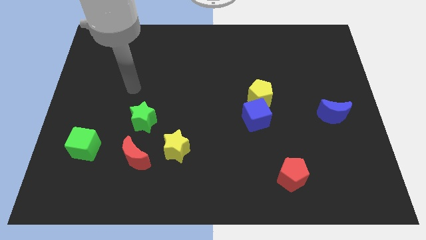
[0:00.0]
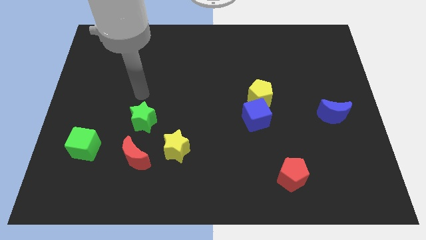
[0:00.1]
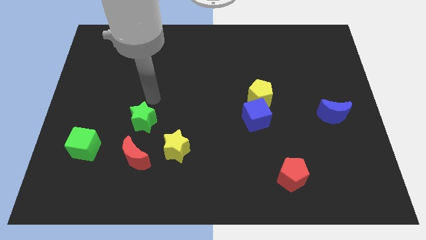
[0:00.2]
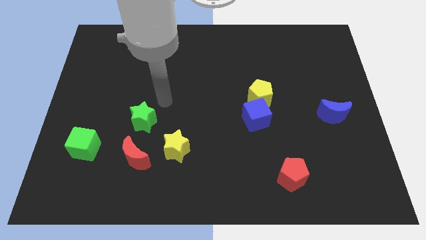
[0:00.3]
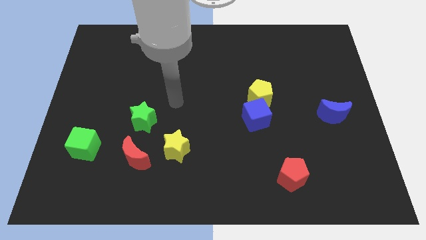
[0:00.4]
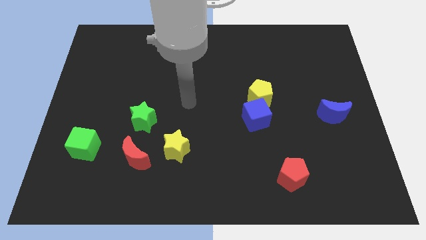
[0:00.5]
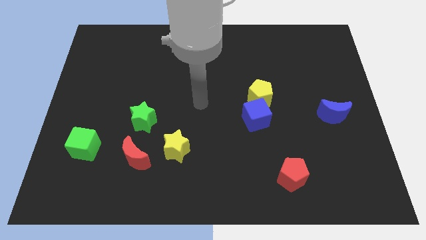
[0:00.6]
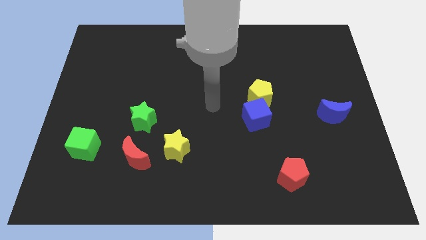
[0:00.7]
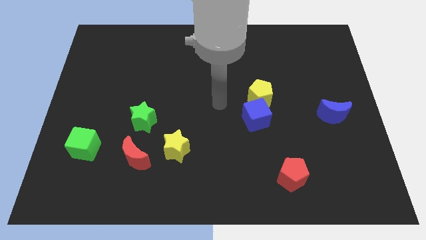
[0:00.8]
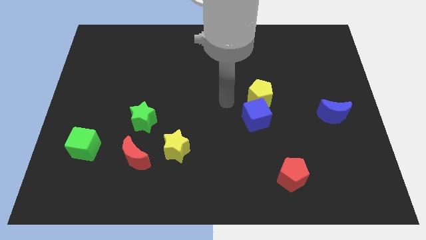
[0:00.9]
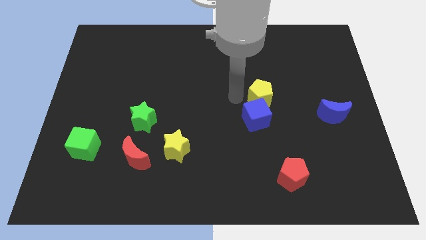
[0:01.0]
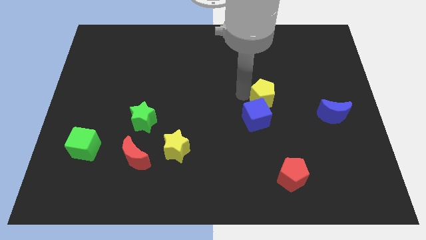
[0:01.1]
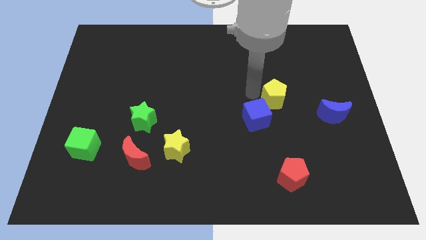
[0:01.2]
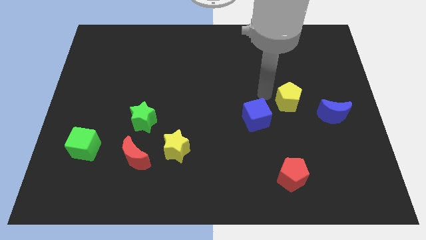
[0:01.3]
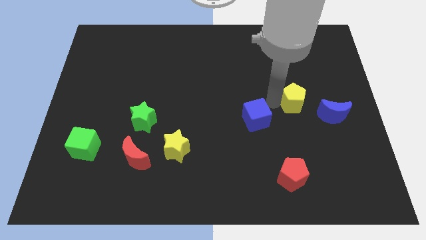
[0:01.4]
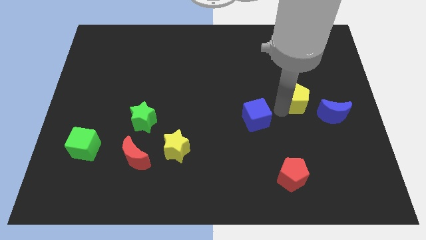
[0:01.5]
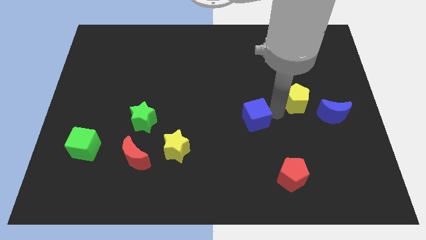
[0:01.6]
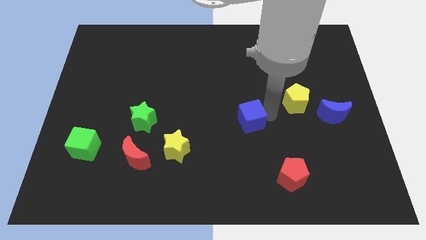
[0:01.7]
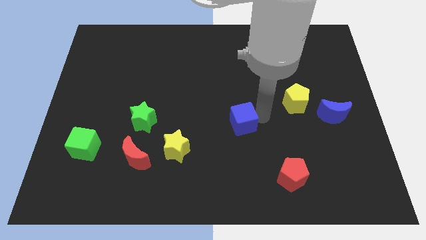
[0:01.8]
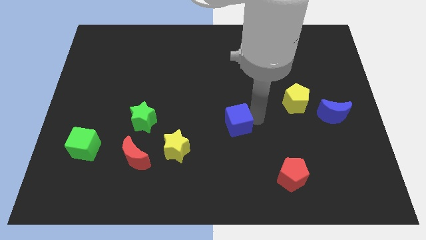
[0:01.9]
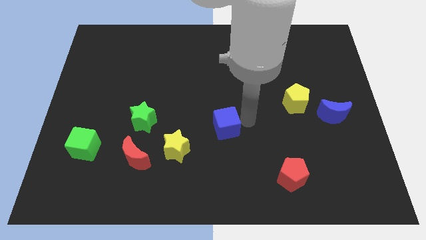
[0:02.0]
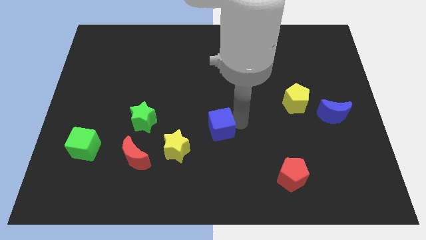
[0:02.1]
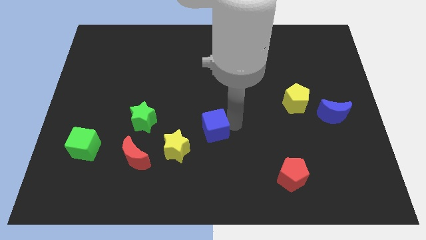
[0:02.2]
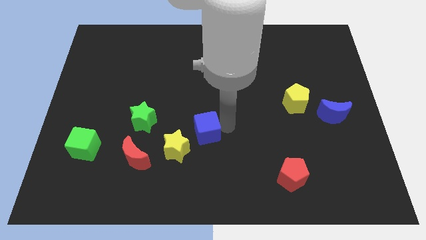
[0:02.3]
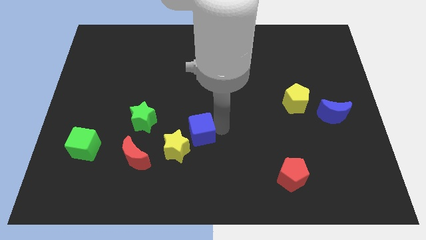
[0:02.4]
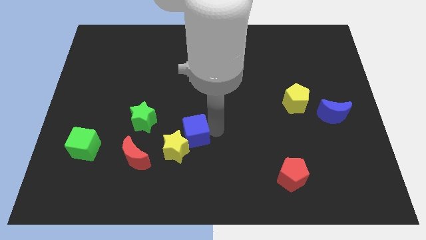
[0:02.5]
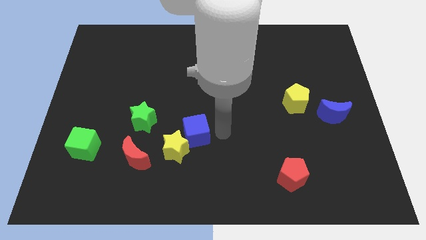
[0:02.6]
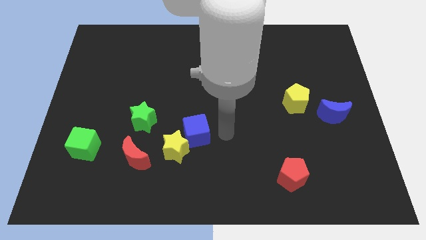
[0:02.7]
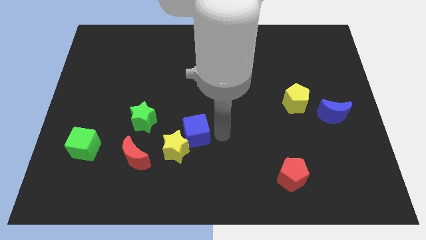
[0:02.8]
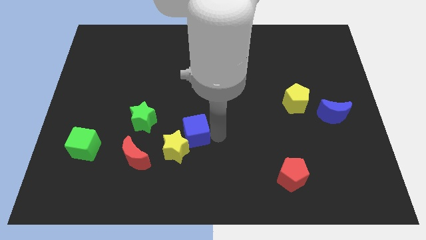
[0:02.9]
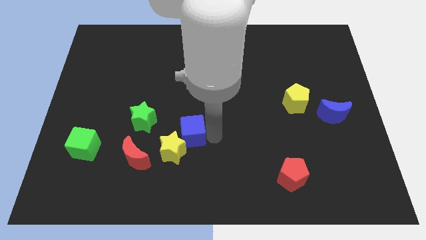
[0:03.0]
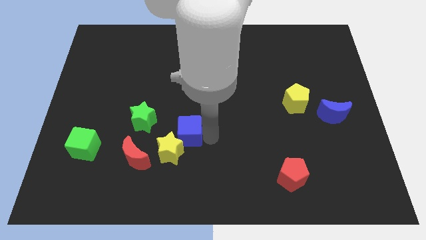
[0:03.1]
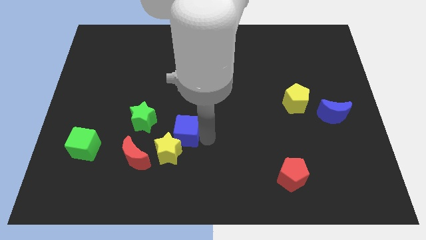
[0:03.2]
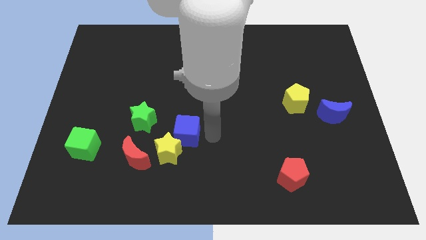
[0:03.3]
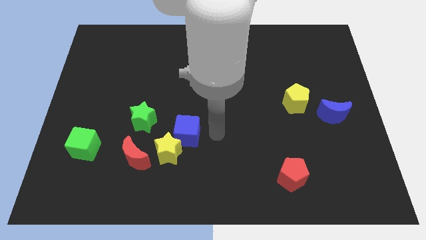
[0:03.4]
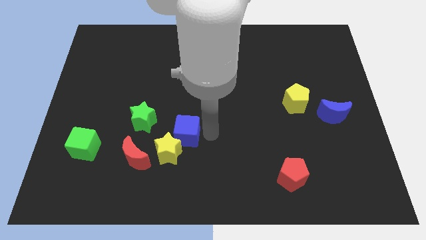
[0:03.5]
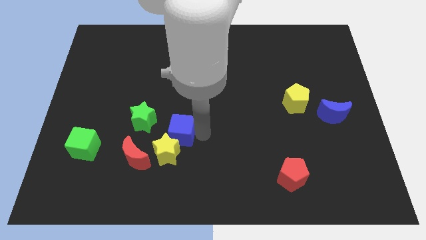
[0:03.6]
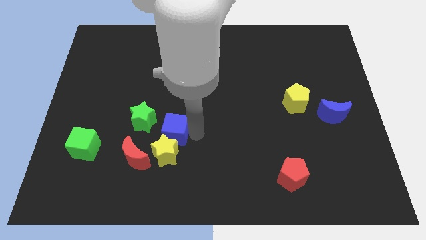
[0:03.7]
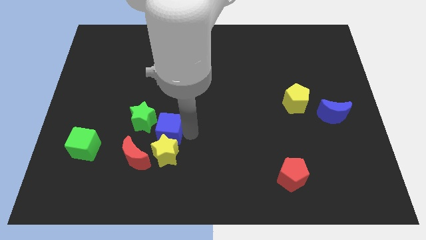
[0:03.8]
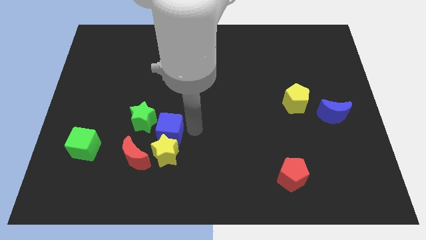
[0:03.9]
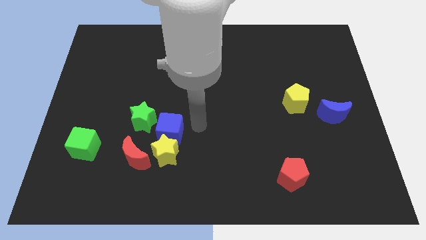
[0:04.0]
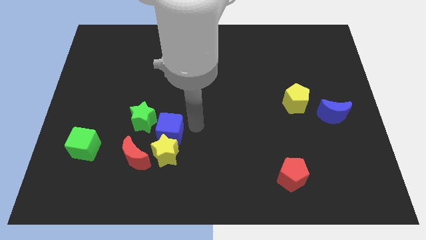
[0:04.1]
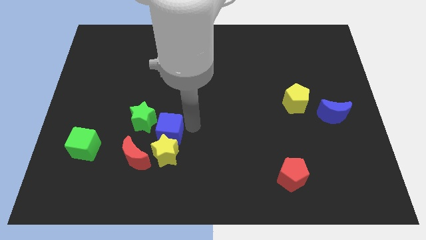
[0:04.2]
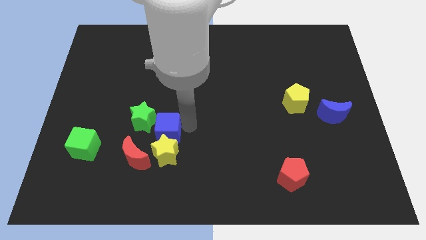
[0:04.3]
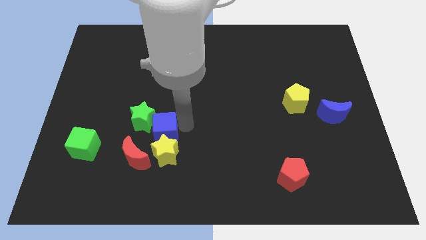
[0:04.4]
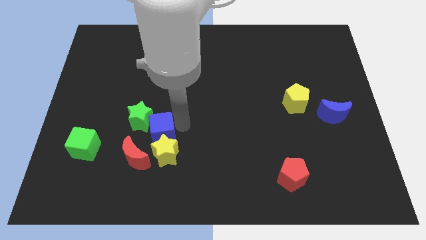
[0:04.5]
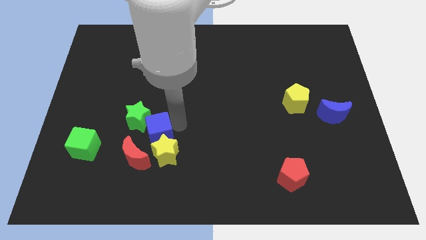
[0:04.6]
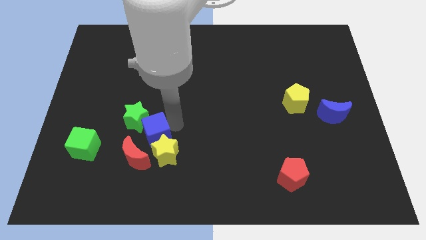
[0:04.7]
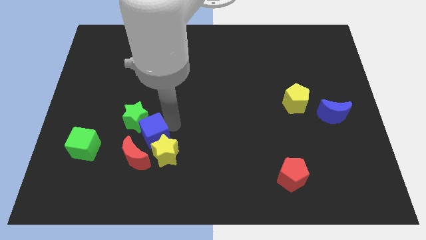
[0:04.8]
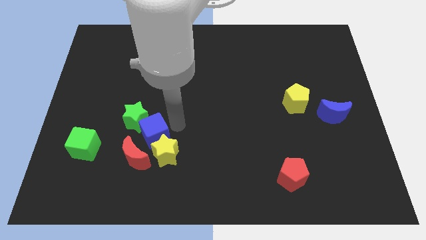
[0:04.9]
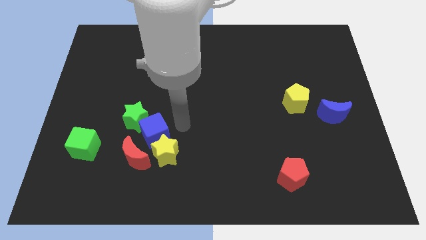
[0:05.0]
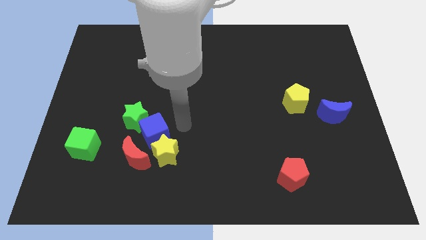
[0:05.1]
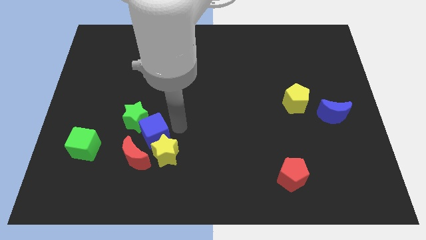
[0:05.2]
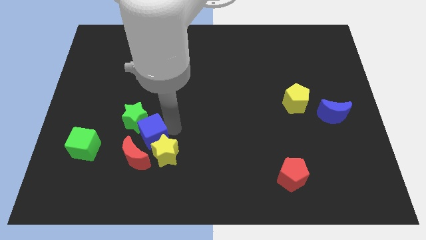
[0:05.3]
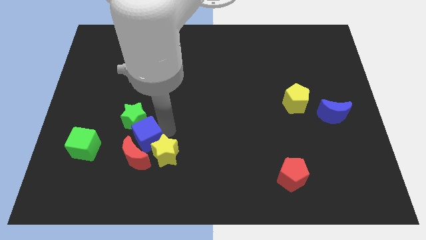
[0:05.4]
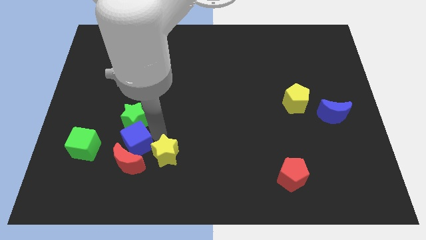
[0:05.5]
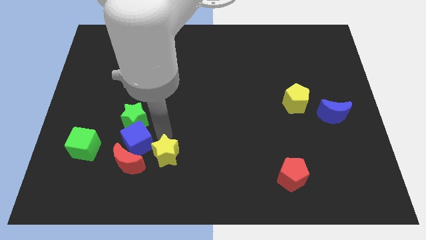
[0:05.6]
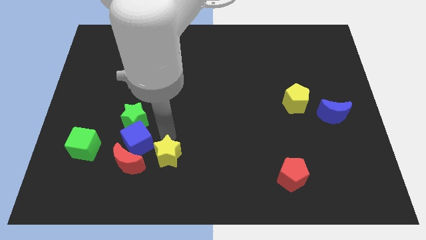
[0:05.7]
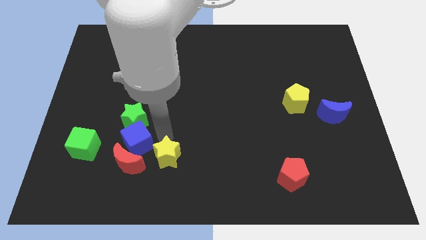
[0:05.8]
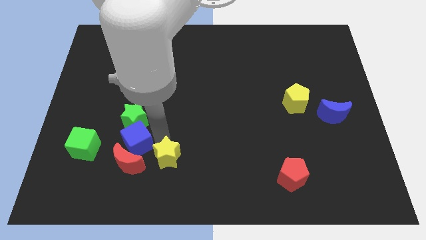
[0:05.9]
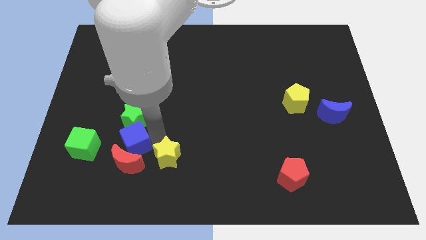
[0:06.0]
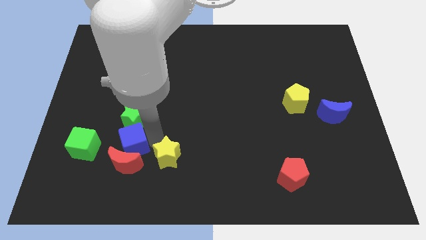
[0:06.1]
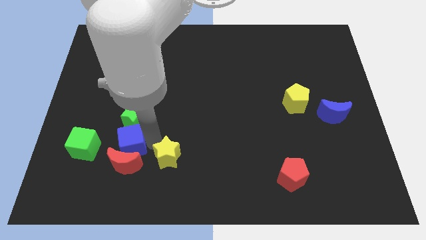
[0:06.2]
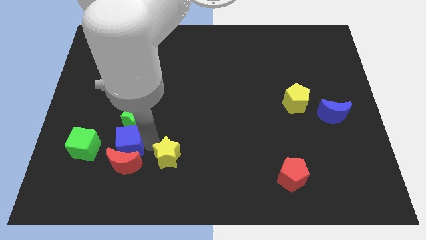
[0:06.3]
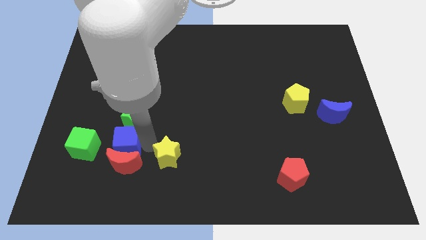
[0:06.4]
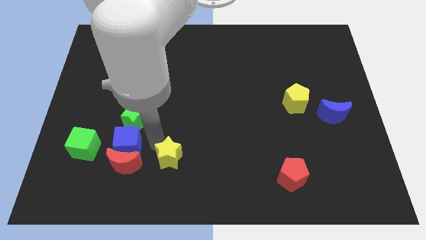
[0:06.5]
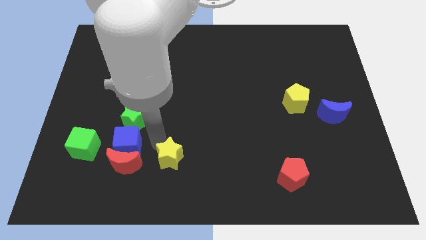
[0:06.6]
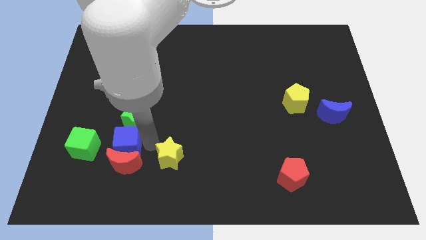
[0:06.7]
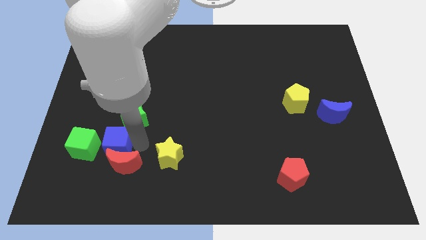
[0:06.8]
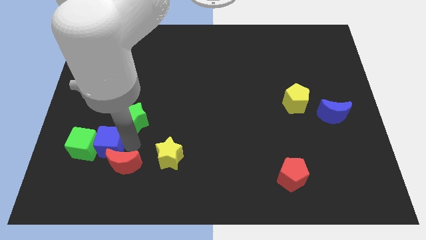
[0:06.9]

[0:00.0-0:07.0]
push the blue cube next to the green cube
